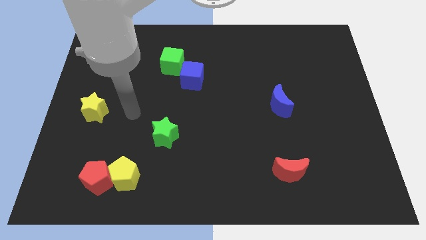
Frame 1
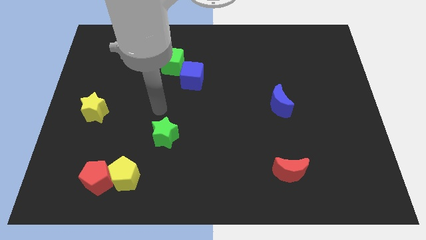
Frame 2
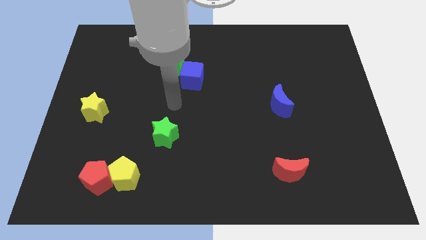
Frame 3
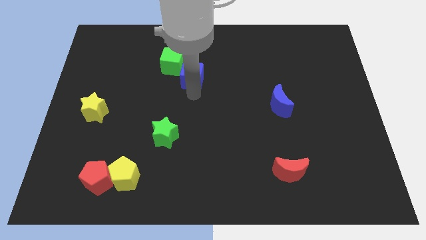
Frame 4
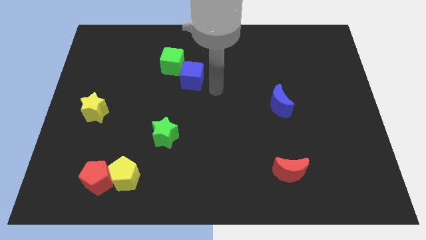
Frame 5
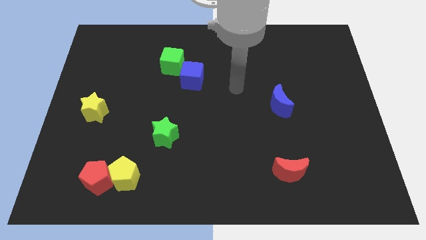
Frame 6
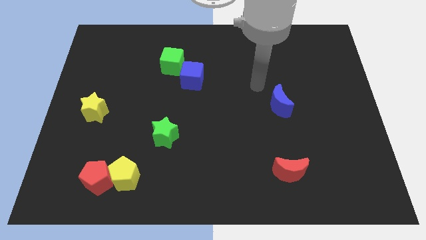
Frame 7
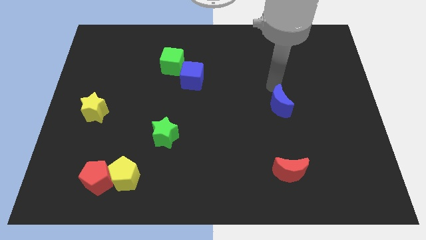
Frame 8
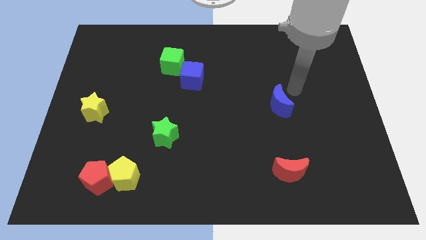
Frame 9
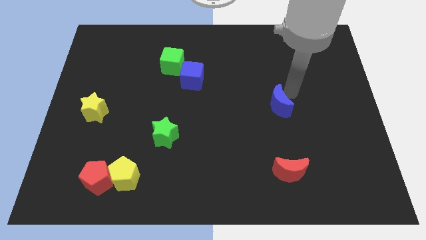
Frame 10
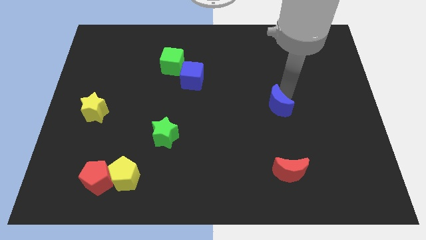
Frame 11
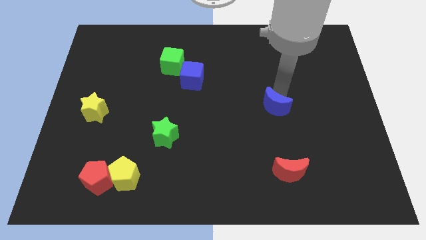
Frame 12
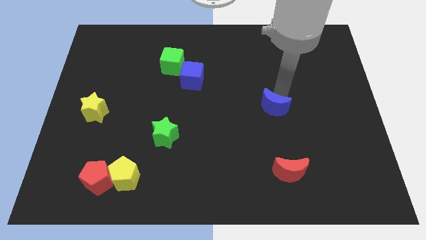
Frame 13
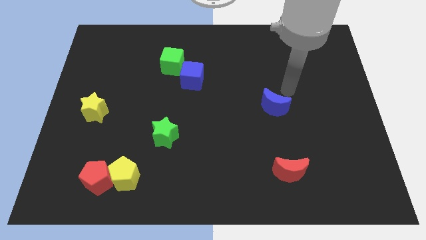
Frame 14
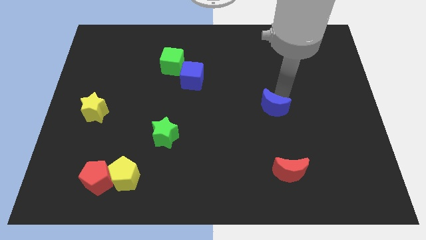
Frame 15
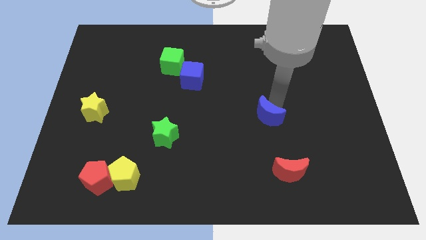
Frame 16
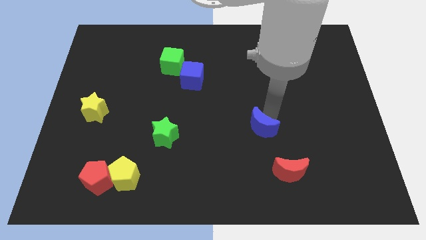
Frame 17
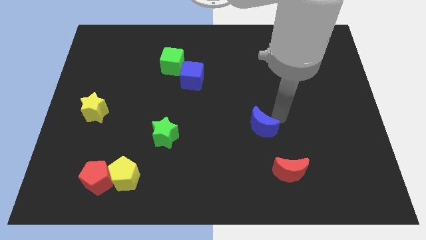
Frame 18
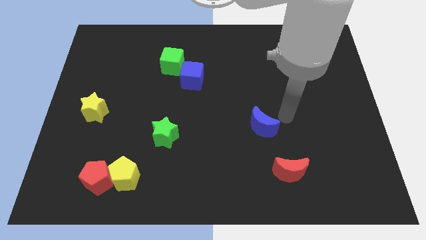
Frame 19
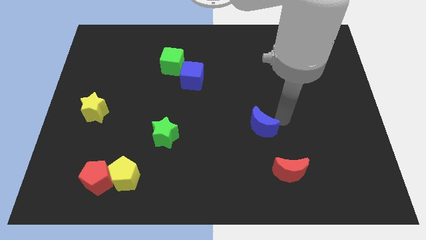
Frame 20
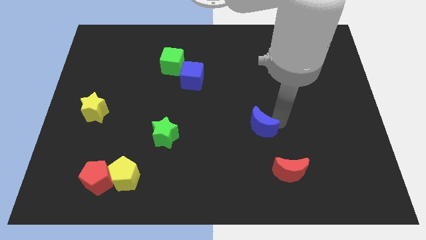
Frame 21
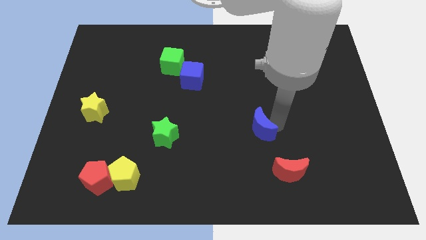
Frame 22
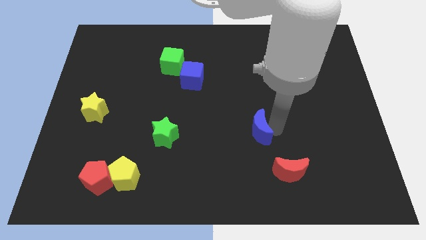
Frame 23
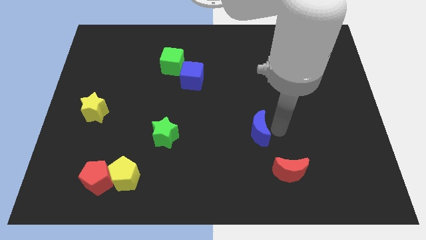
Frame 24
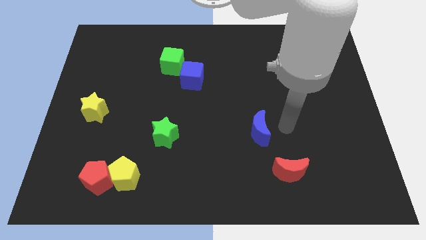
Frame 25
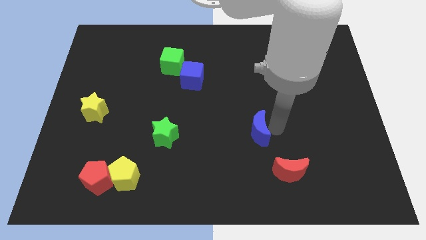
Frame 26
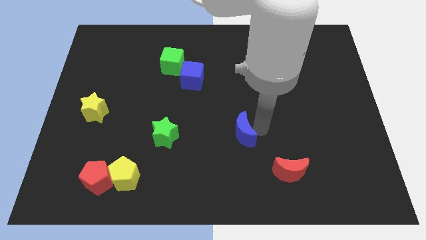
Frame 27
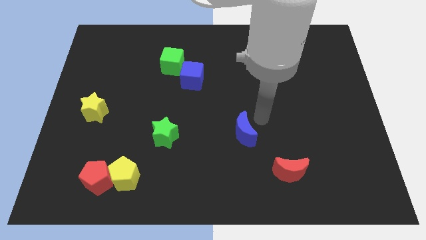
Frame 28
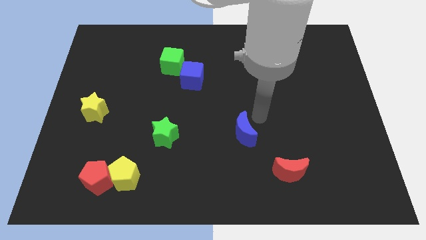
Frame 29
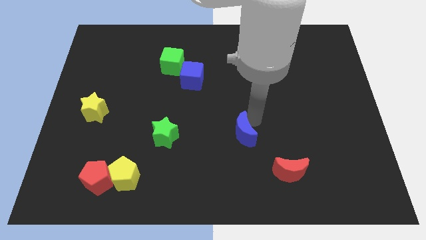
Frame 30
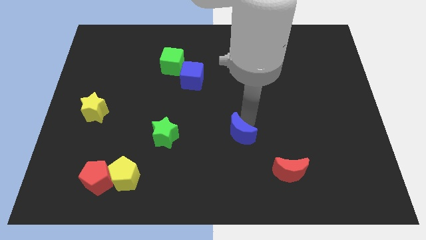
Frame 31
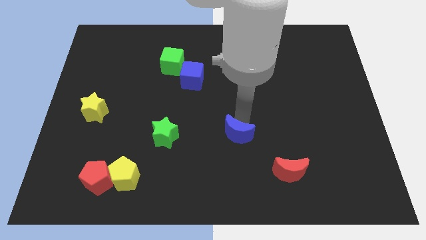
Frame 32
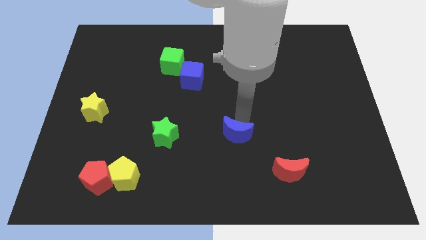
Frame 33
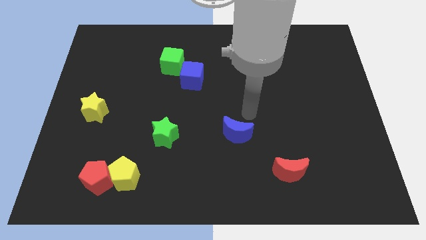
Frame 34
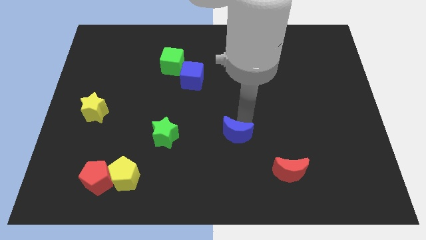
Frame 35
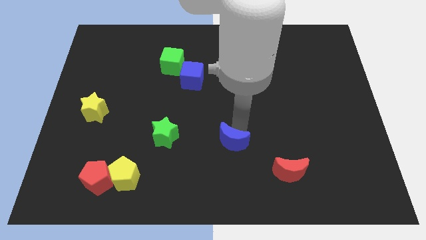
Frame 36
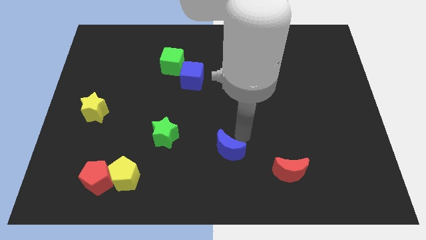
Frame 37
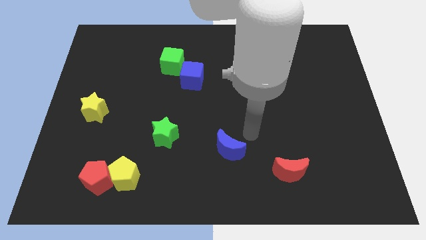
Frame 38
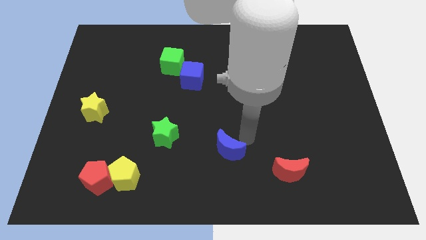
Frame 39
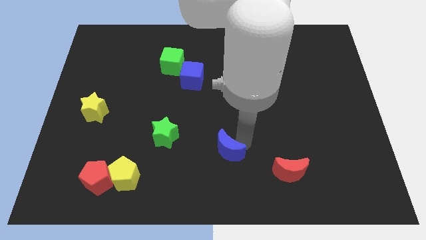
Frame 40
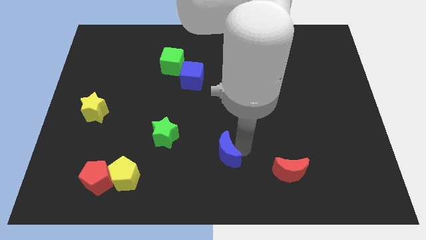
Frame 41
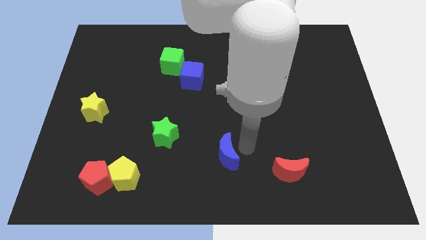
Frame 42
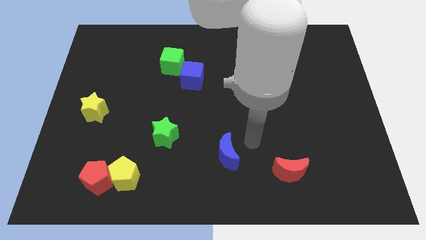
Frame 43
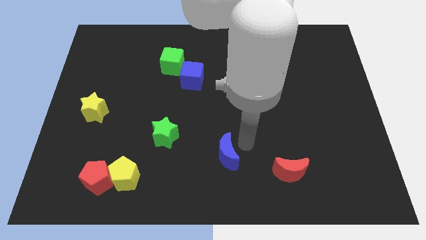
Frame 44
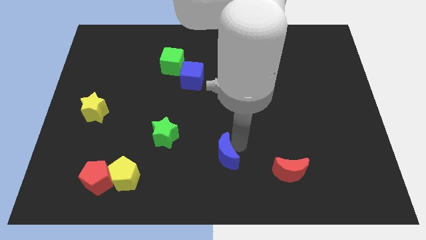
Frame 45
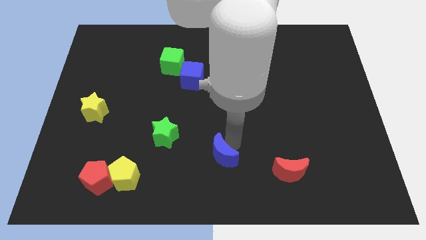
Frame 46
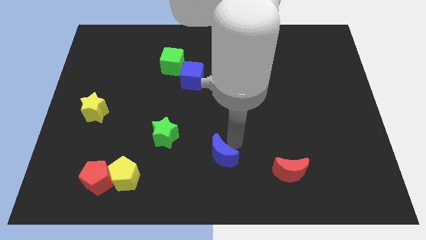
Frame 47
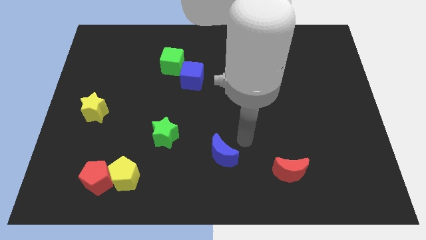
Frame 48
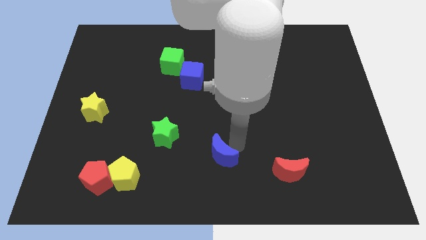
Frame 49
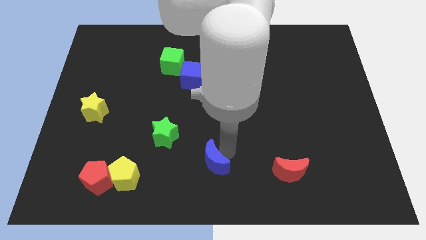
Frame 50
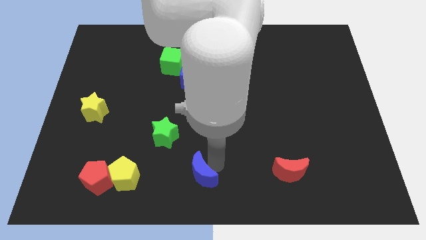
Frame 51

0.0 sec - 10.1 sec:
move the blue moon to the right of the yellow pentagon

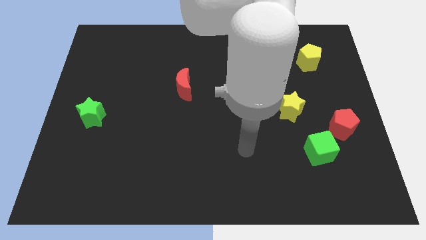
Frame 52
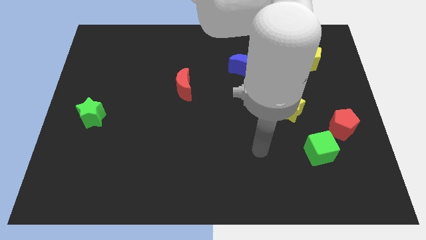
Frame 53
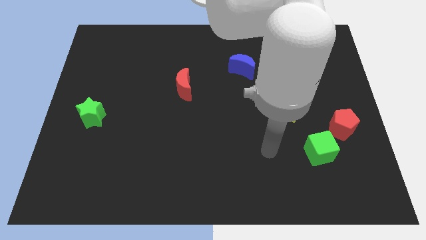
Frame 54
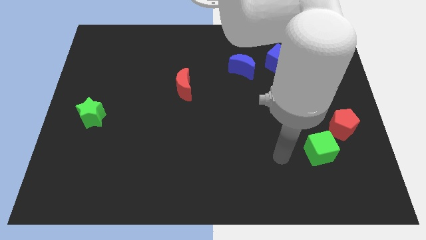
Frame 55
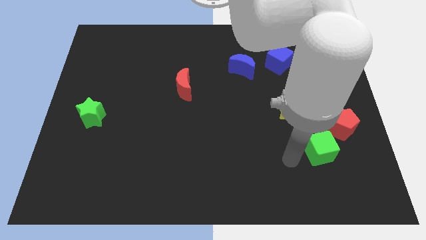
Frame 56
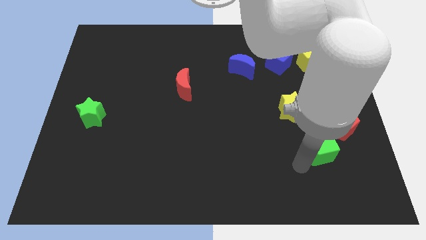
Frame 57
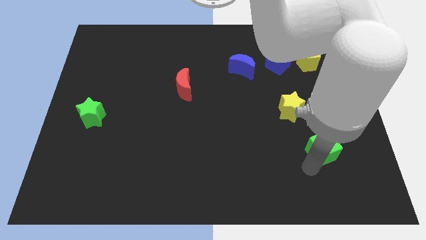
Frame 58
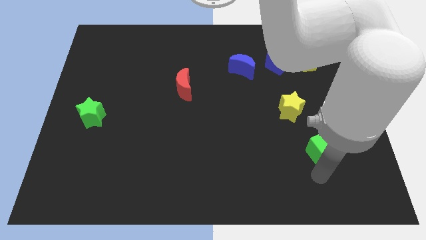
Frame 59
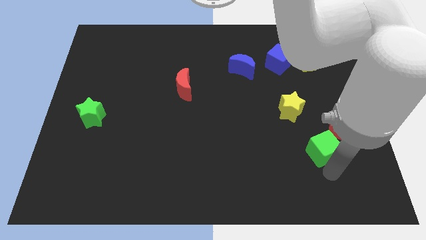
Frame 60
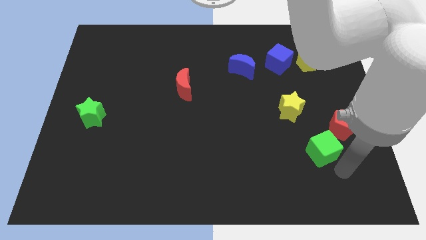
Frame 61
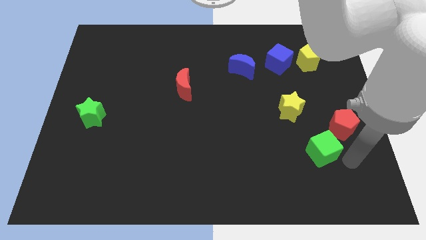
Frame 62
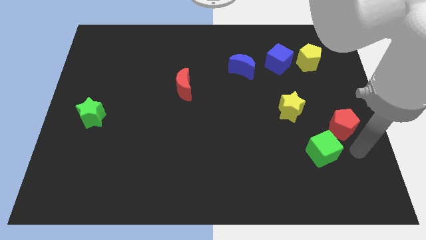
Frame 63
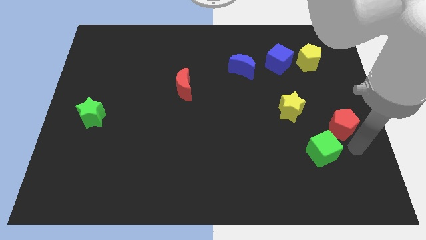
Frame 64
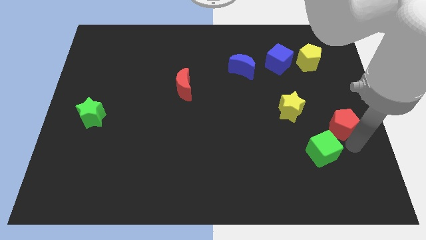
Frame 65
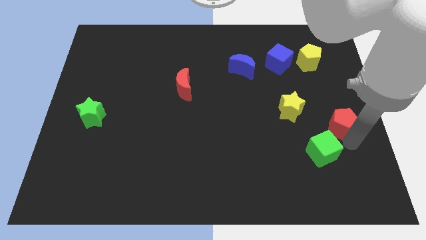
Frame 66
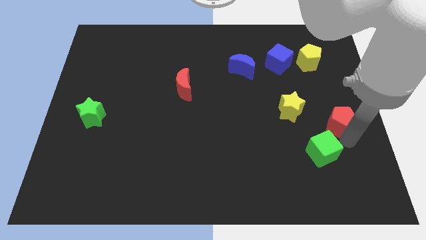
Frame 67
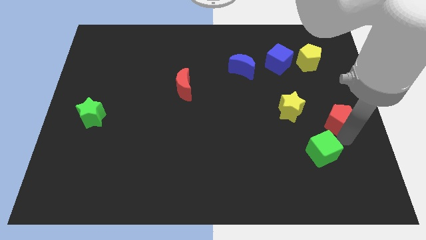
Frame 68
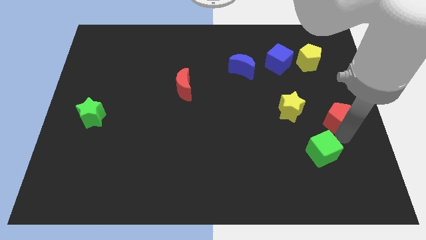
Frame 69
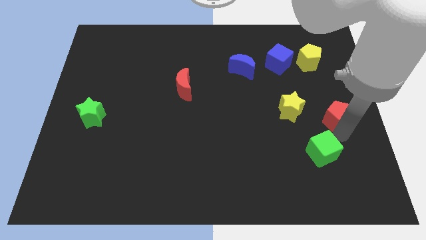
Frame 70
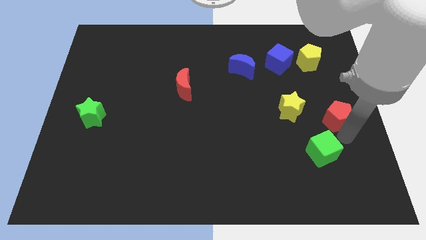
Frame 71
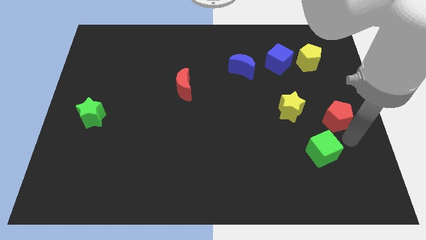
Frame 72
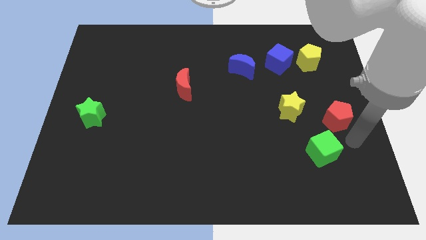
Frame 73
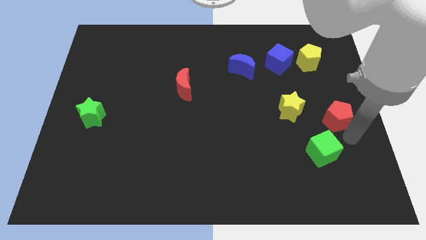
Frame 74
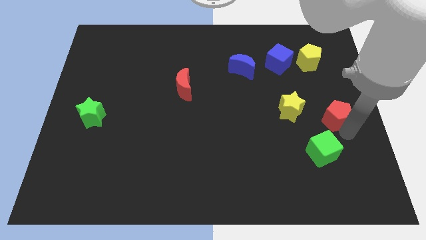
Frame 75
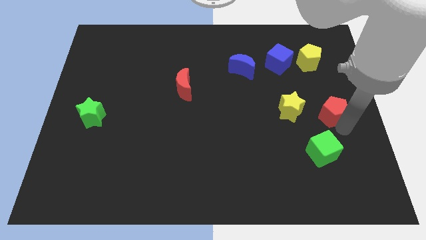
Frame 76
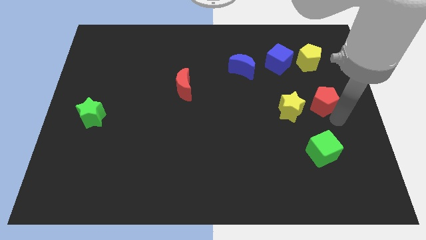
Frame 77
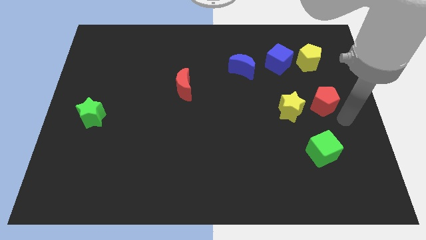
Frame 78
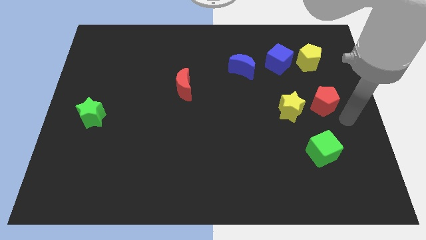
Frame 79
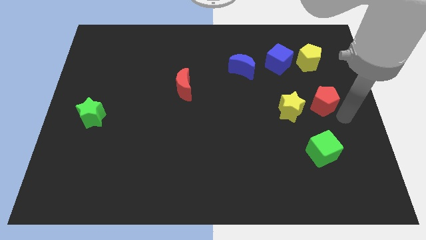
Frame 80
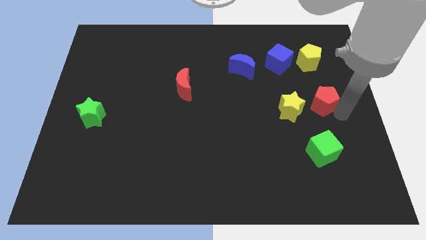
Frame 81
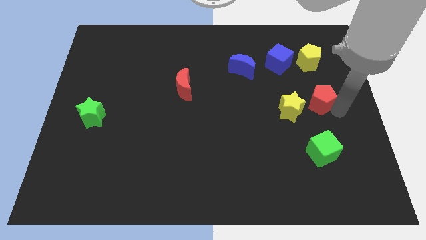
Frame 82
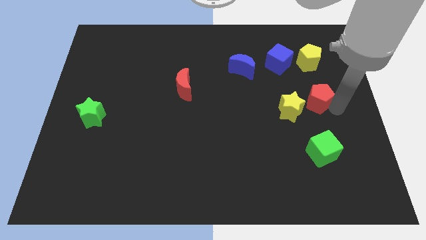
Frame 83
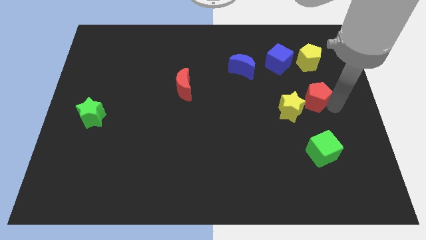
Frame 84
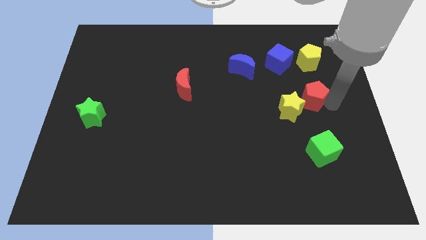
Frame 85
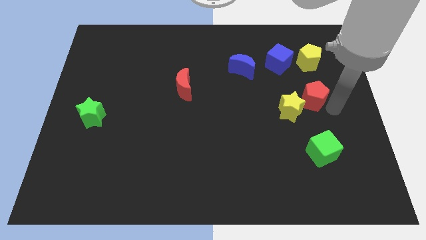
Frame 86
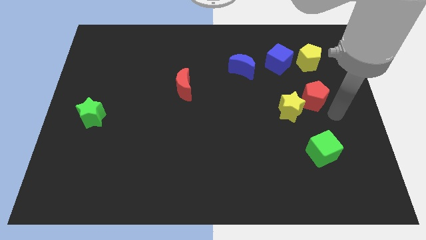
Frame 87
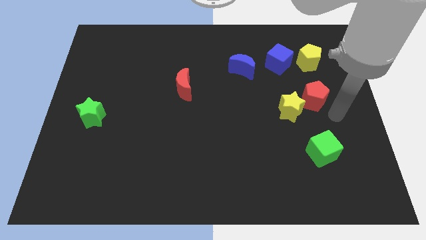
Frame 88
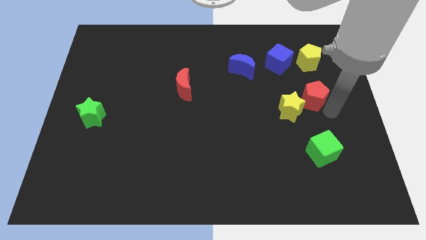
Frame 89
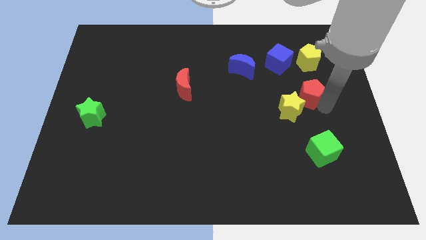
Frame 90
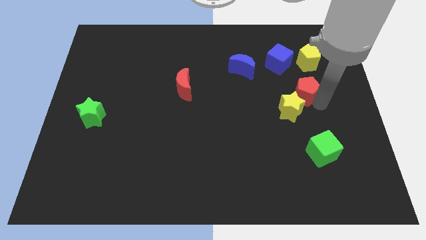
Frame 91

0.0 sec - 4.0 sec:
put the red pentagon above the yellow star
